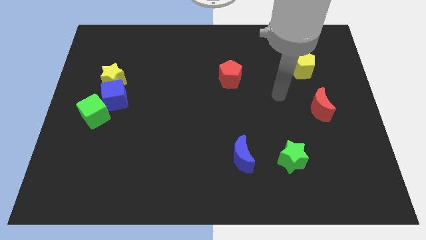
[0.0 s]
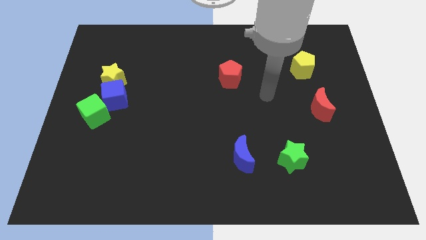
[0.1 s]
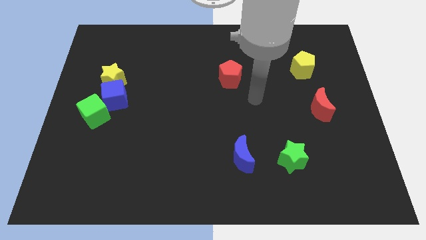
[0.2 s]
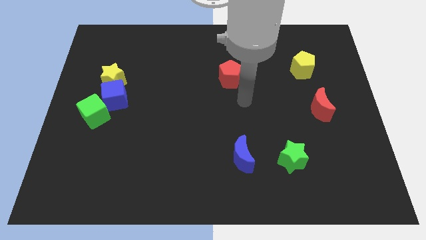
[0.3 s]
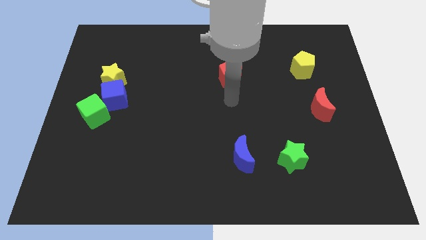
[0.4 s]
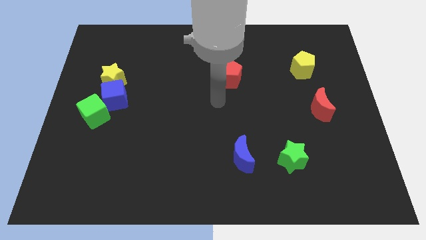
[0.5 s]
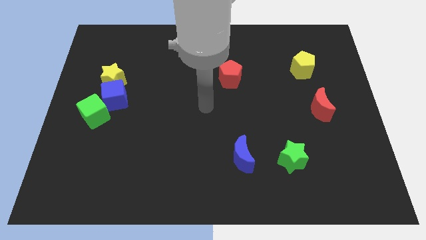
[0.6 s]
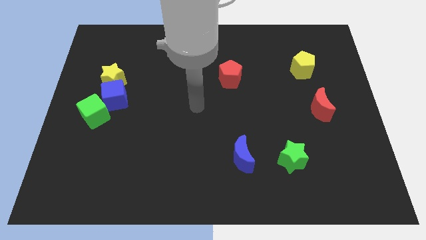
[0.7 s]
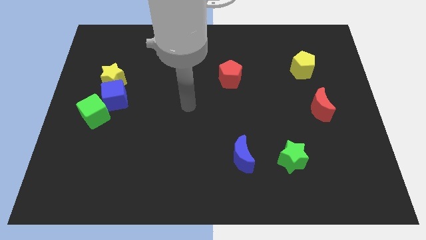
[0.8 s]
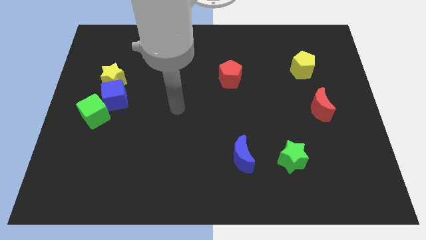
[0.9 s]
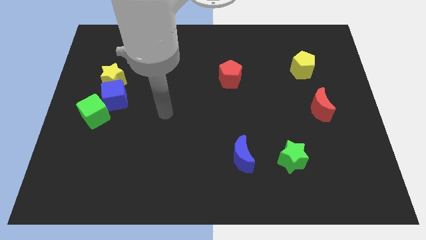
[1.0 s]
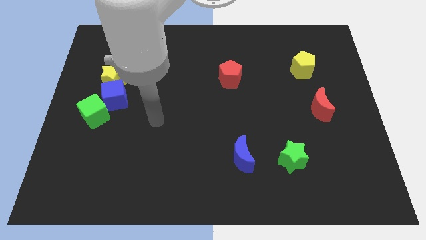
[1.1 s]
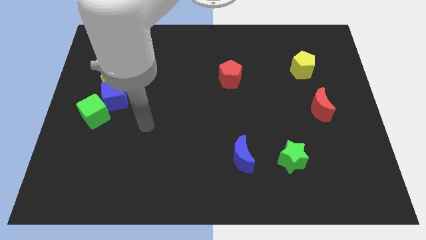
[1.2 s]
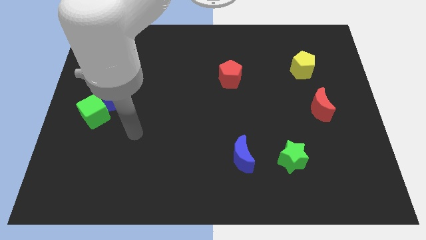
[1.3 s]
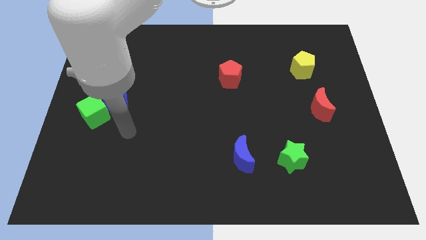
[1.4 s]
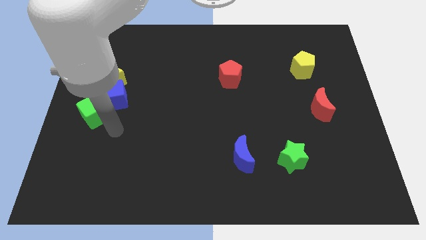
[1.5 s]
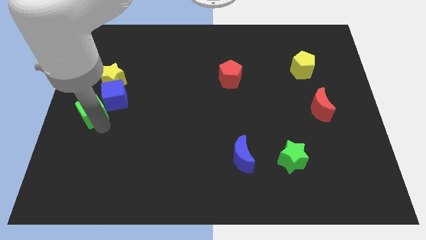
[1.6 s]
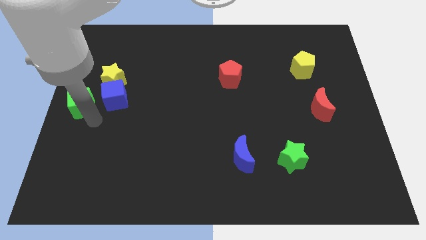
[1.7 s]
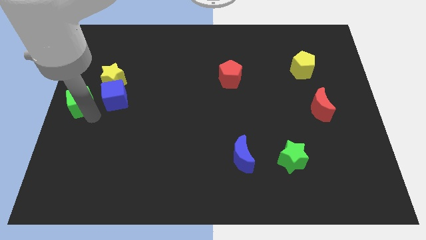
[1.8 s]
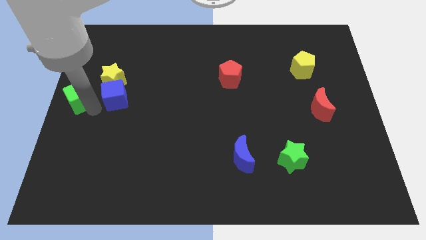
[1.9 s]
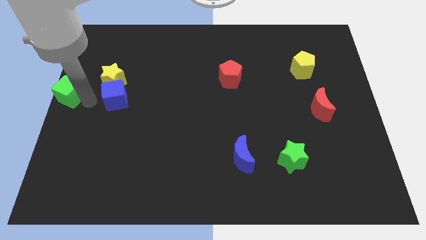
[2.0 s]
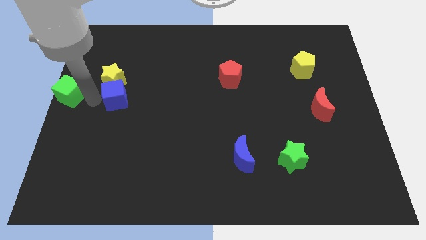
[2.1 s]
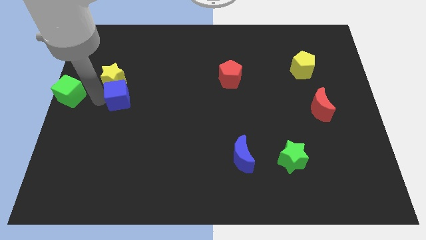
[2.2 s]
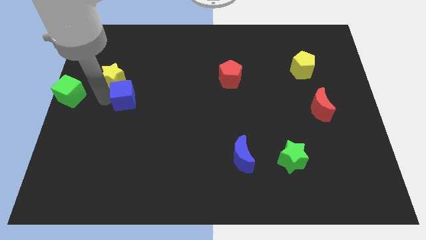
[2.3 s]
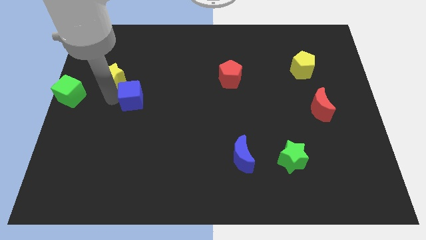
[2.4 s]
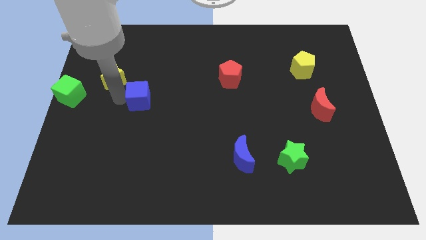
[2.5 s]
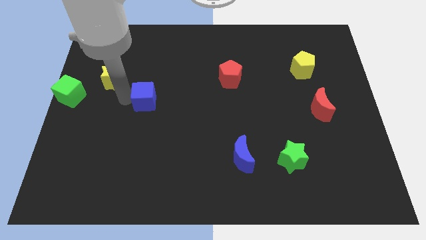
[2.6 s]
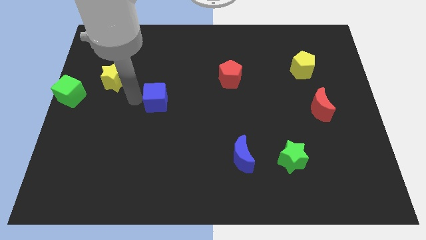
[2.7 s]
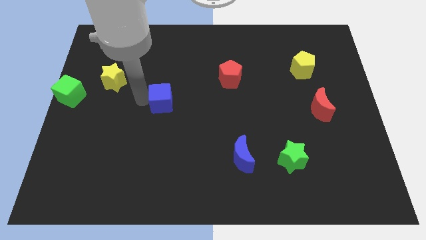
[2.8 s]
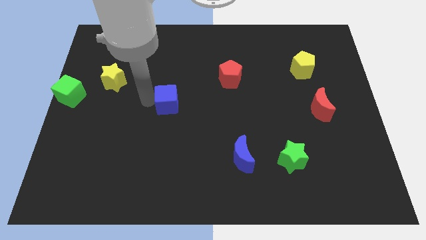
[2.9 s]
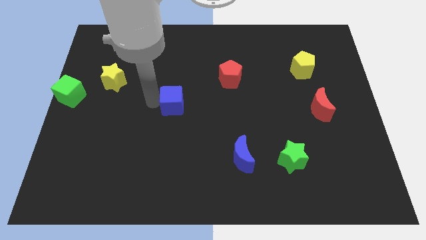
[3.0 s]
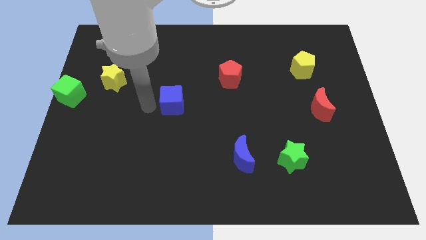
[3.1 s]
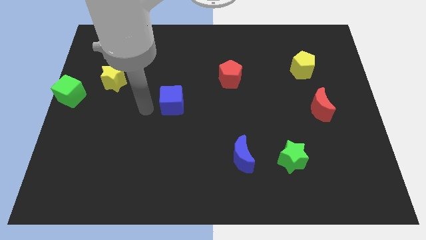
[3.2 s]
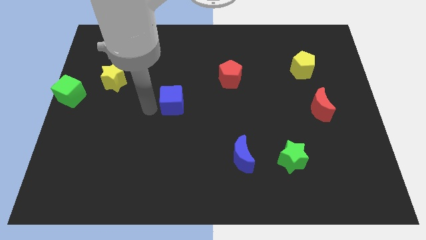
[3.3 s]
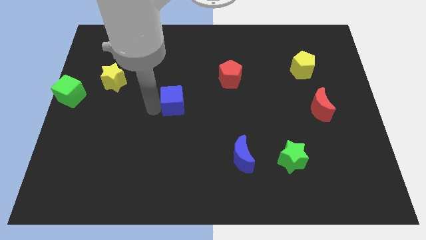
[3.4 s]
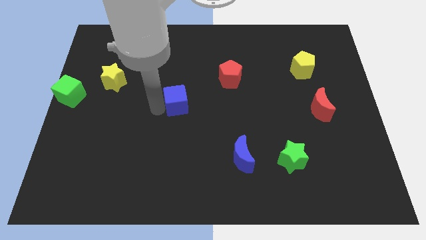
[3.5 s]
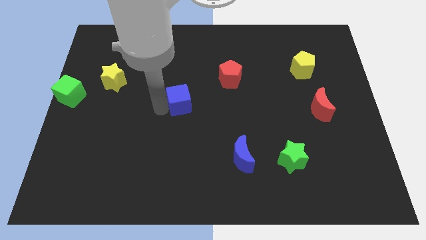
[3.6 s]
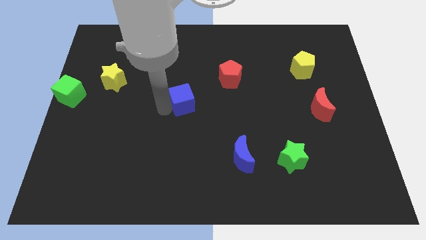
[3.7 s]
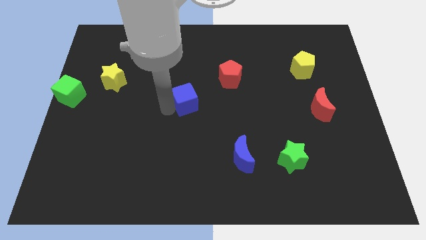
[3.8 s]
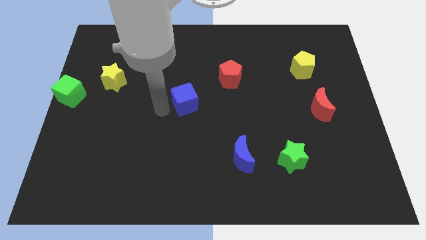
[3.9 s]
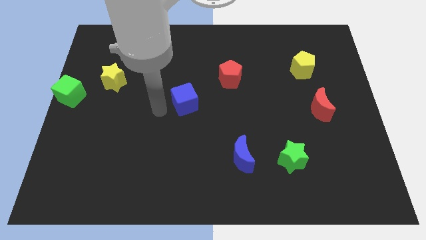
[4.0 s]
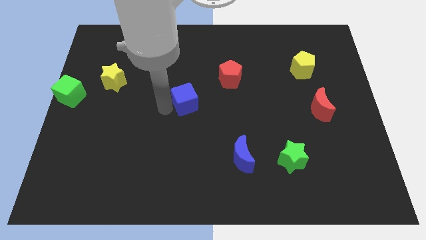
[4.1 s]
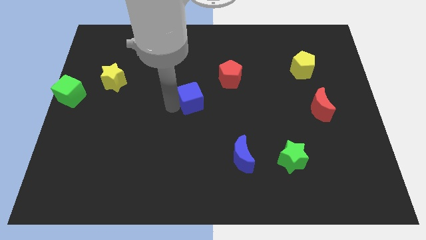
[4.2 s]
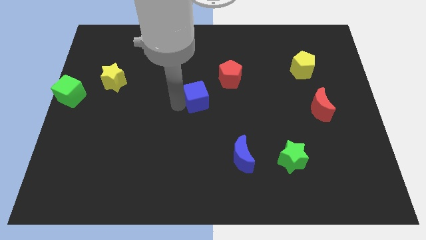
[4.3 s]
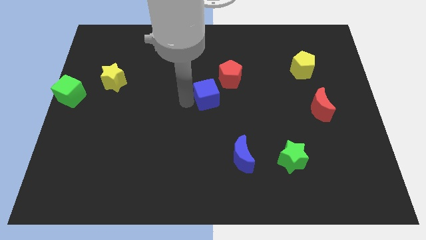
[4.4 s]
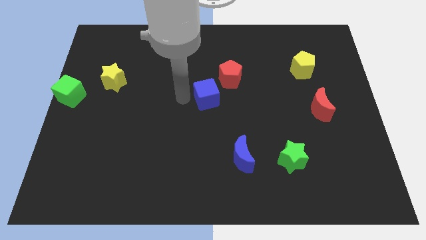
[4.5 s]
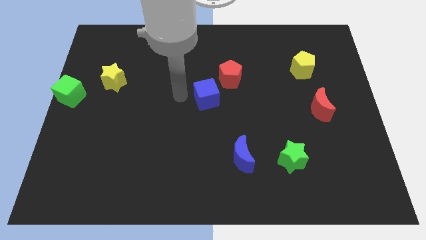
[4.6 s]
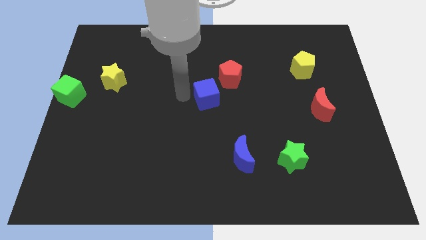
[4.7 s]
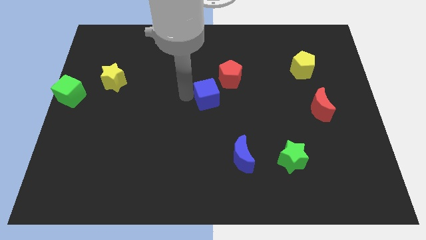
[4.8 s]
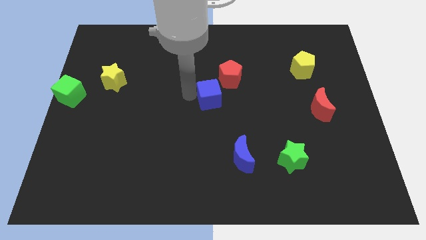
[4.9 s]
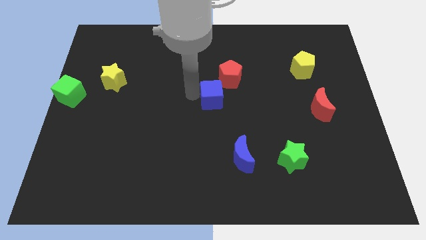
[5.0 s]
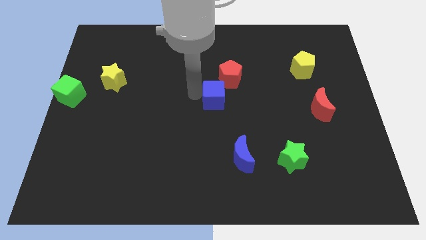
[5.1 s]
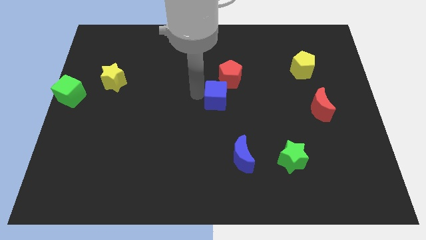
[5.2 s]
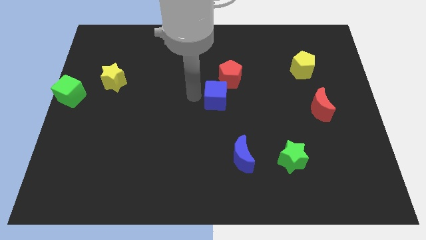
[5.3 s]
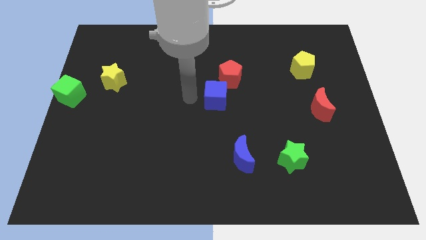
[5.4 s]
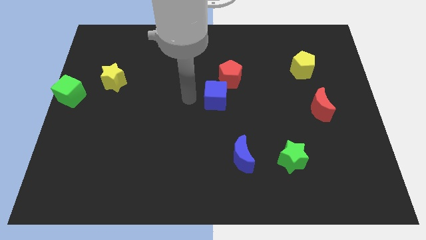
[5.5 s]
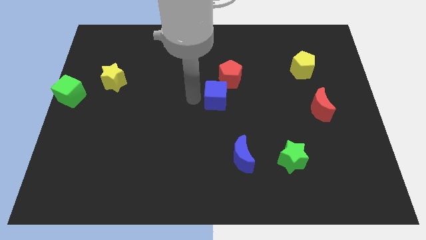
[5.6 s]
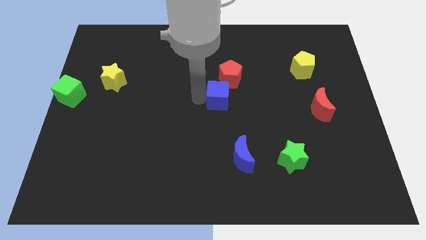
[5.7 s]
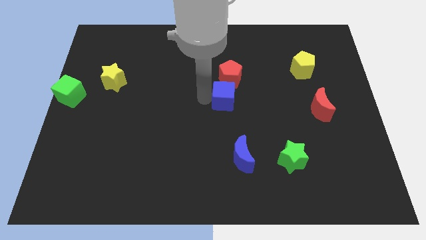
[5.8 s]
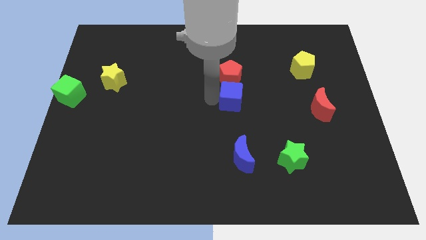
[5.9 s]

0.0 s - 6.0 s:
push the blue cube diagonally down and to the right of the red pentagon
